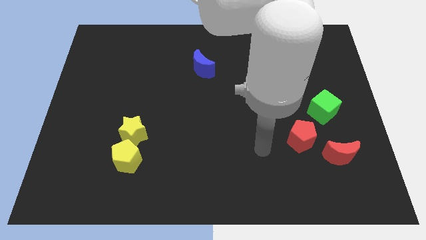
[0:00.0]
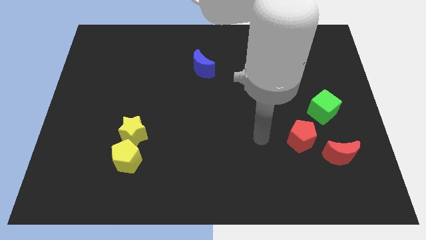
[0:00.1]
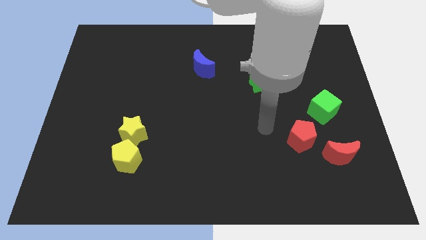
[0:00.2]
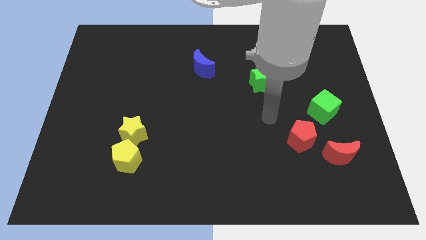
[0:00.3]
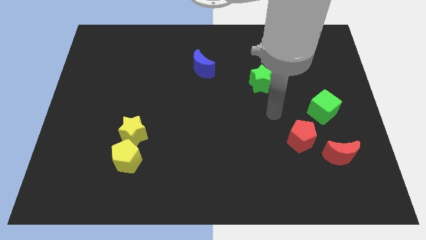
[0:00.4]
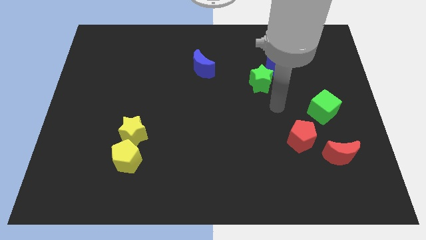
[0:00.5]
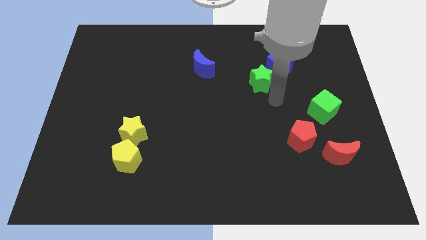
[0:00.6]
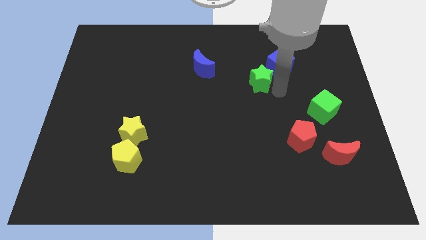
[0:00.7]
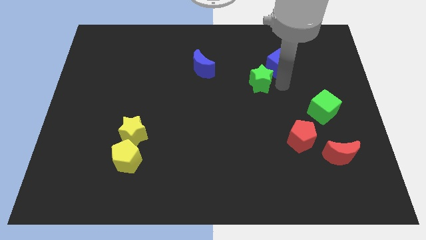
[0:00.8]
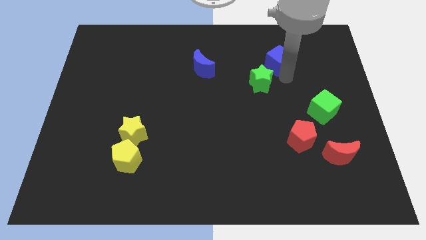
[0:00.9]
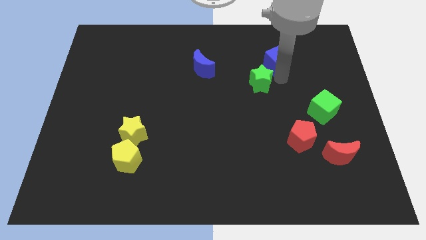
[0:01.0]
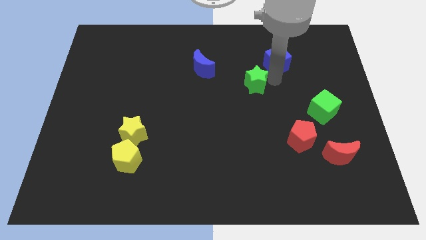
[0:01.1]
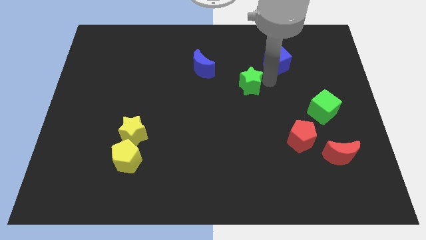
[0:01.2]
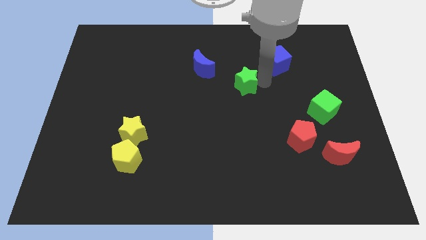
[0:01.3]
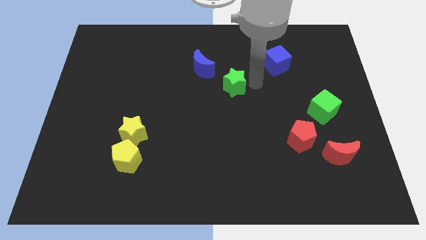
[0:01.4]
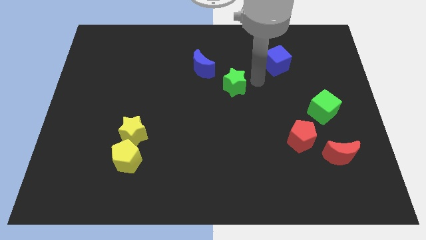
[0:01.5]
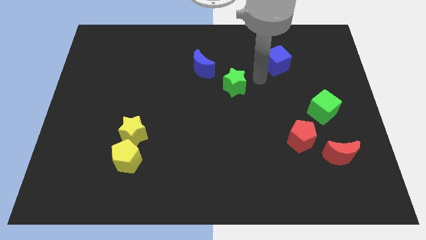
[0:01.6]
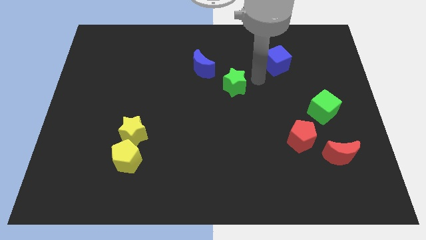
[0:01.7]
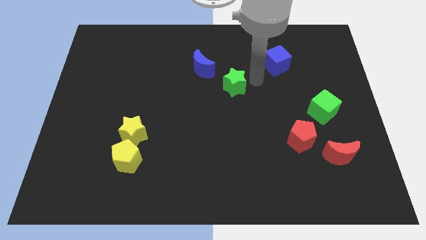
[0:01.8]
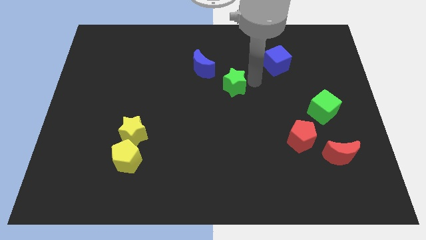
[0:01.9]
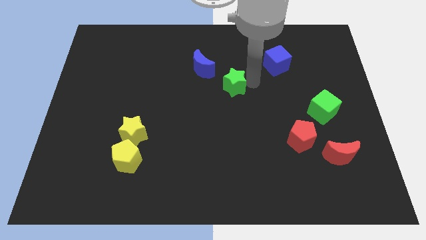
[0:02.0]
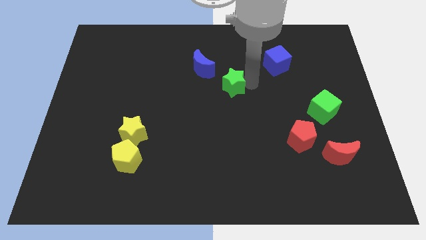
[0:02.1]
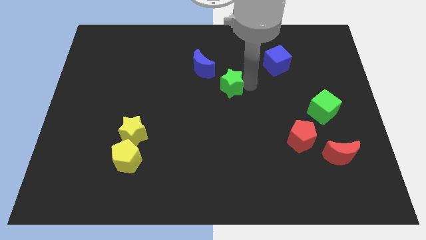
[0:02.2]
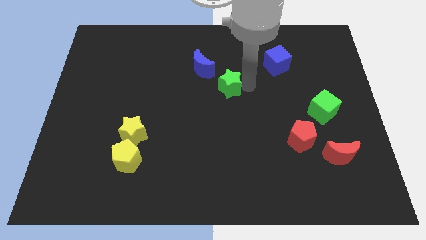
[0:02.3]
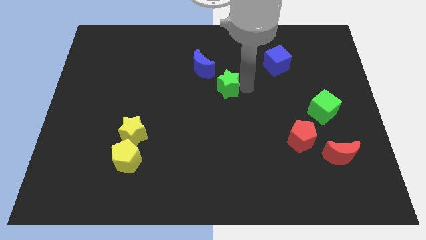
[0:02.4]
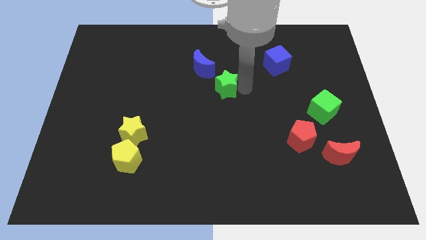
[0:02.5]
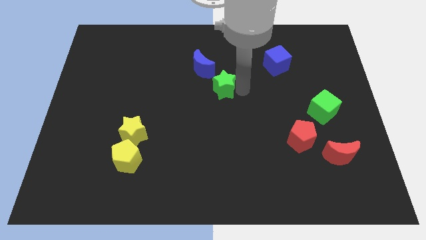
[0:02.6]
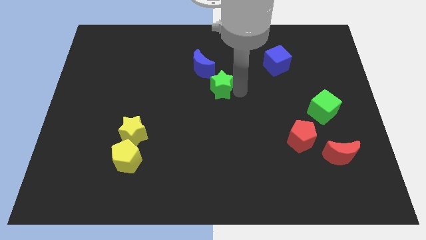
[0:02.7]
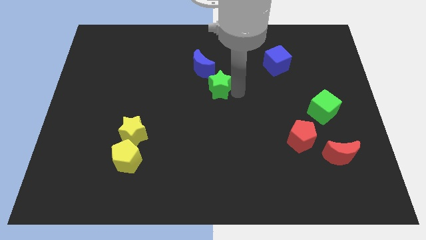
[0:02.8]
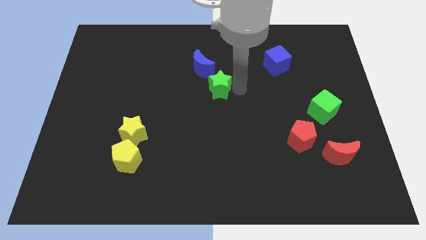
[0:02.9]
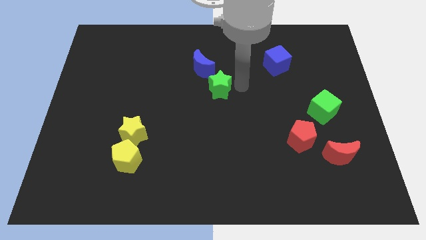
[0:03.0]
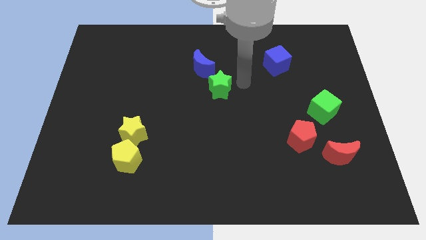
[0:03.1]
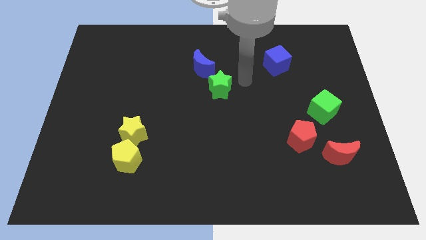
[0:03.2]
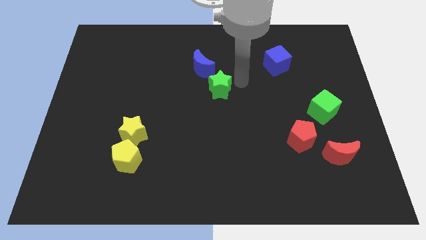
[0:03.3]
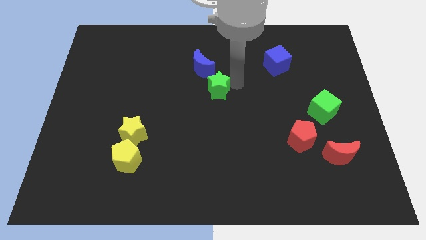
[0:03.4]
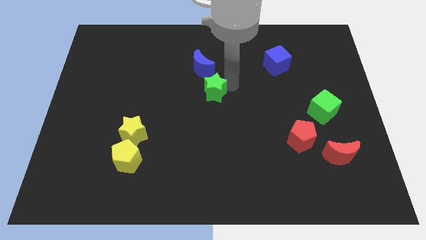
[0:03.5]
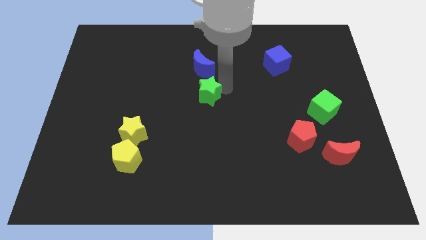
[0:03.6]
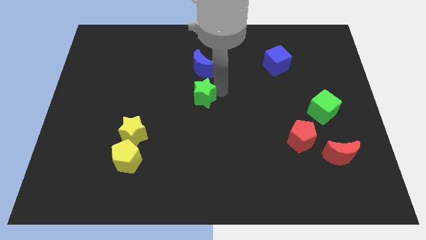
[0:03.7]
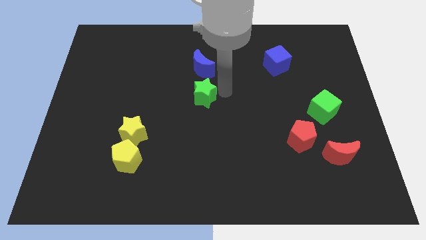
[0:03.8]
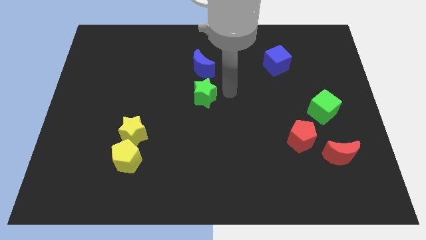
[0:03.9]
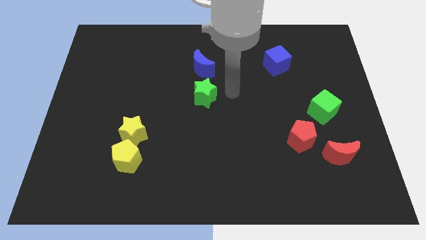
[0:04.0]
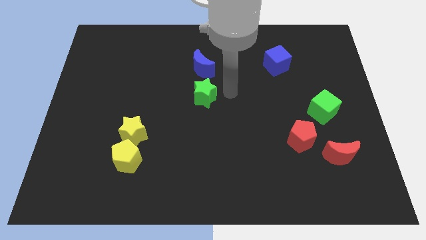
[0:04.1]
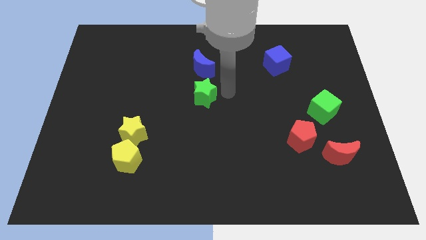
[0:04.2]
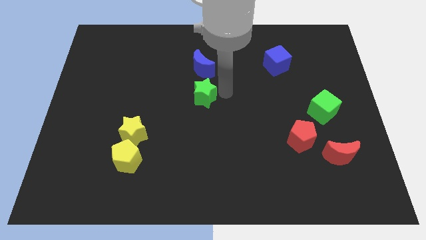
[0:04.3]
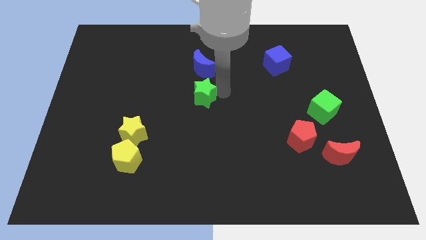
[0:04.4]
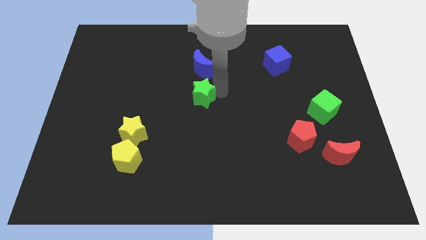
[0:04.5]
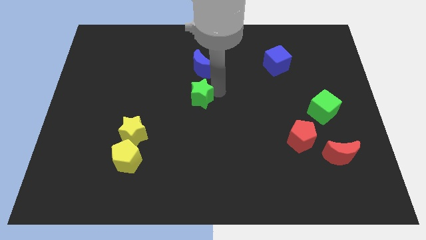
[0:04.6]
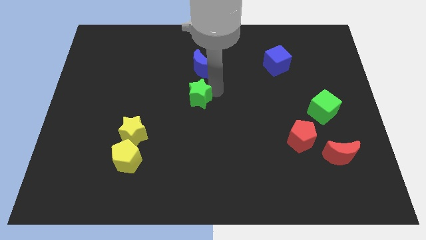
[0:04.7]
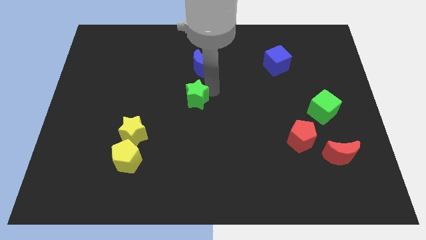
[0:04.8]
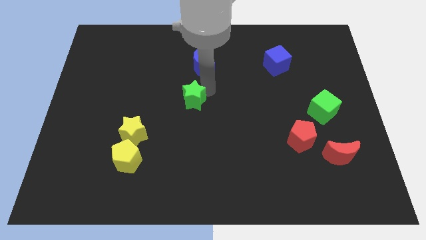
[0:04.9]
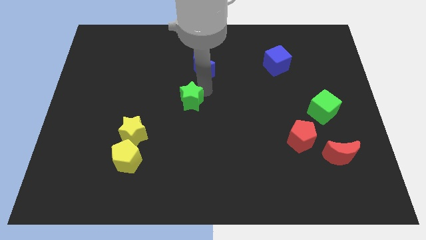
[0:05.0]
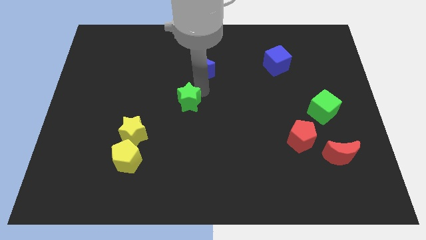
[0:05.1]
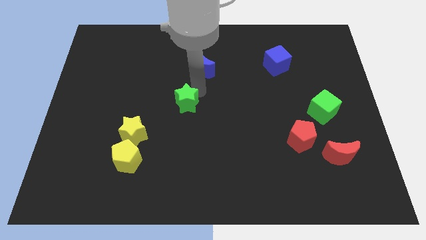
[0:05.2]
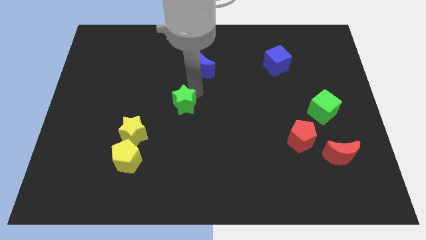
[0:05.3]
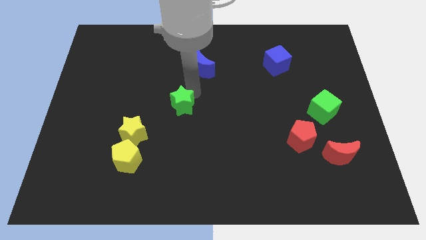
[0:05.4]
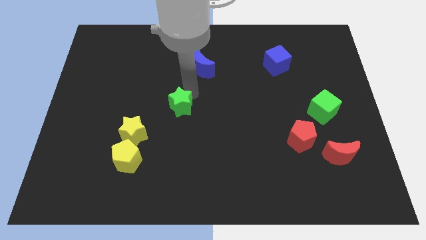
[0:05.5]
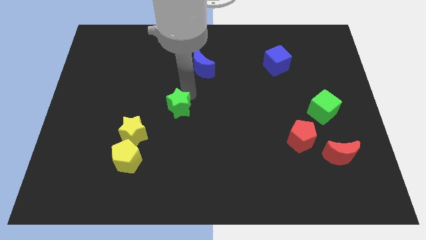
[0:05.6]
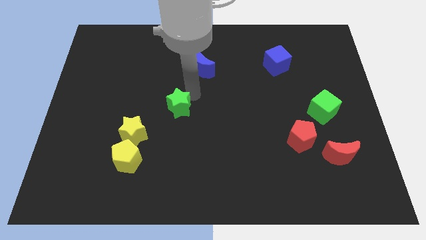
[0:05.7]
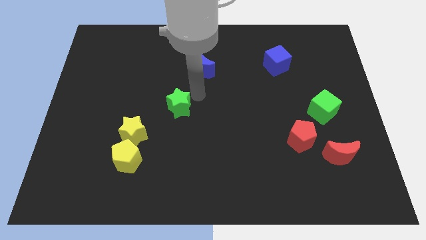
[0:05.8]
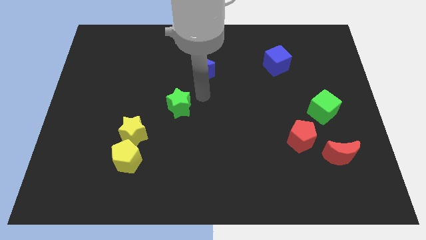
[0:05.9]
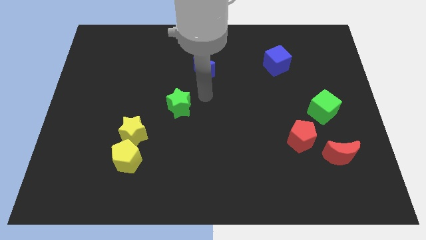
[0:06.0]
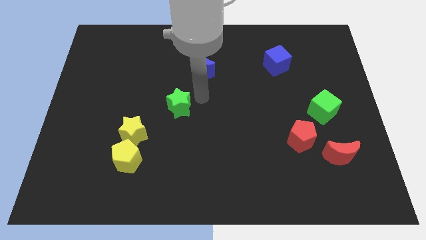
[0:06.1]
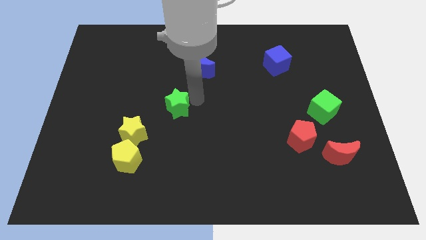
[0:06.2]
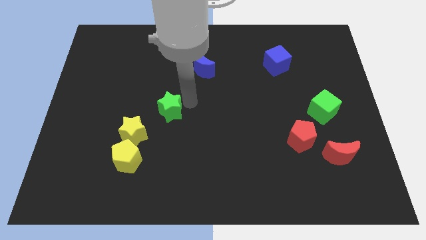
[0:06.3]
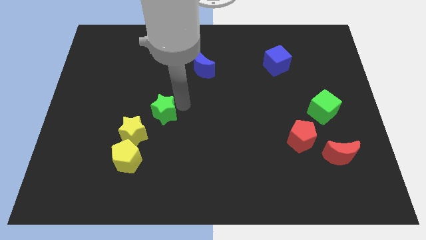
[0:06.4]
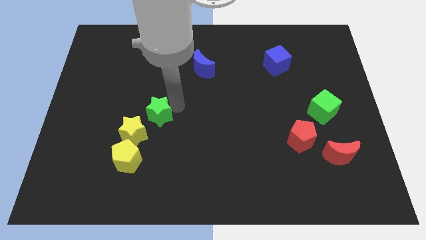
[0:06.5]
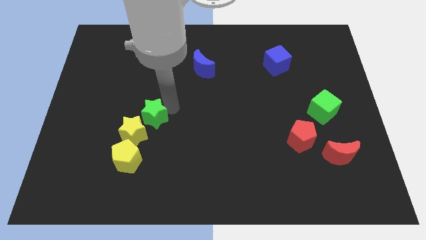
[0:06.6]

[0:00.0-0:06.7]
put the green star to the yellow star
